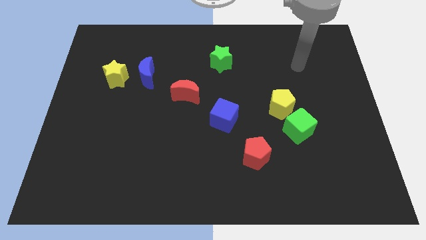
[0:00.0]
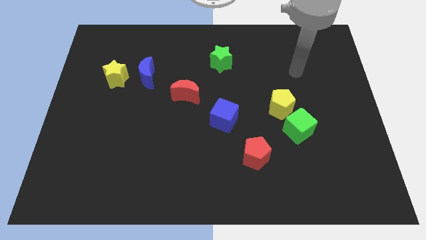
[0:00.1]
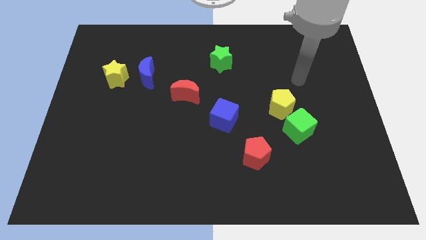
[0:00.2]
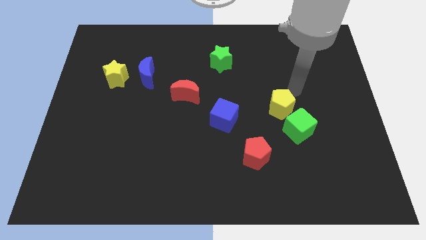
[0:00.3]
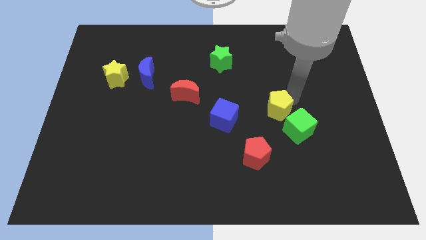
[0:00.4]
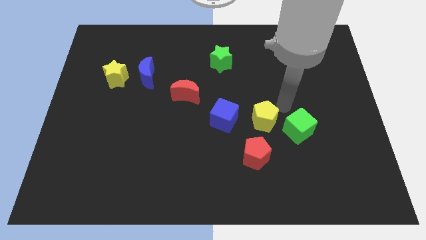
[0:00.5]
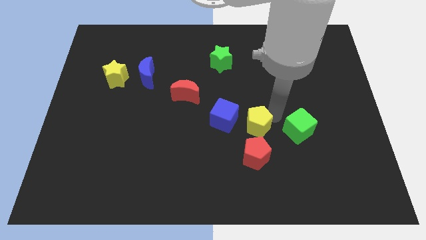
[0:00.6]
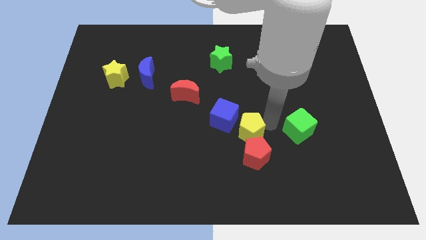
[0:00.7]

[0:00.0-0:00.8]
pull the green cube apart from the yellow pentagon

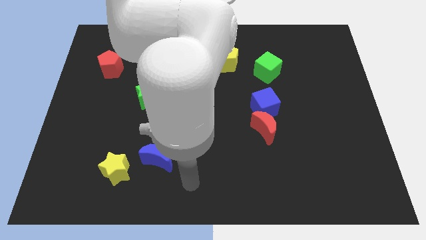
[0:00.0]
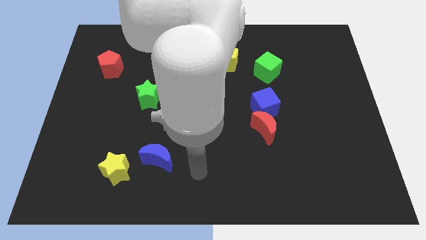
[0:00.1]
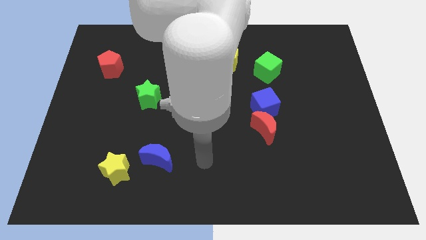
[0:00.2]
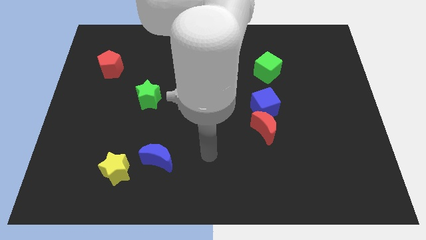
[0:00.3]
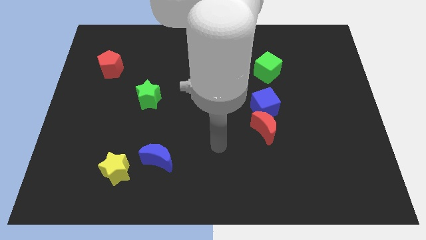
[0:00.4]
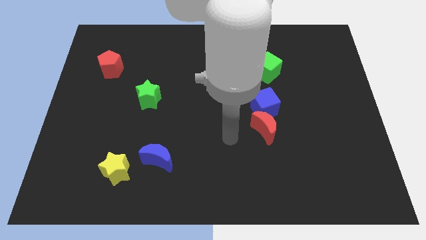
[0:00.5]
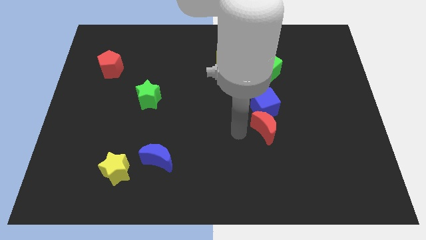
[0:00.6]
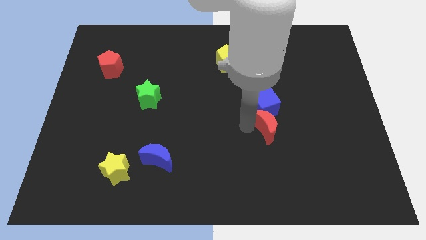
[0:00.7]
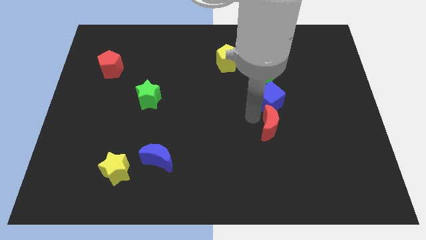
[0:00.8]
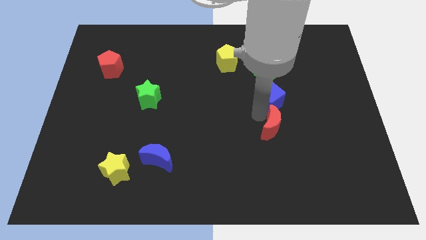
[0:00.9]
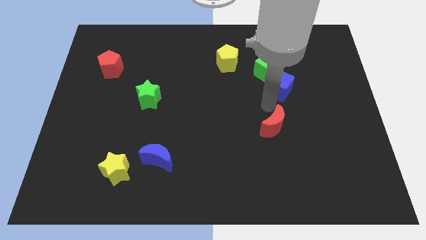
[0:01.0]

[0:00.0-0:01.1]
separate the red moon from the blue cube

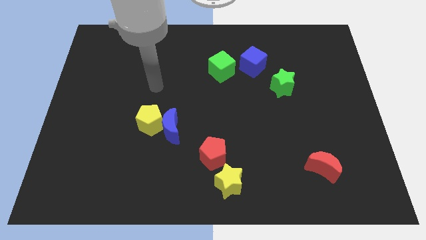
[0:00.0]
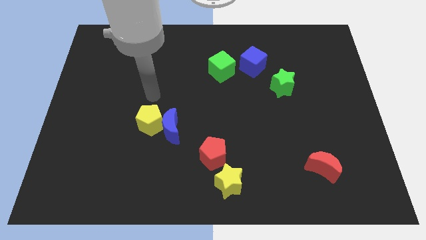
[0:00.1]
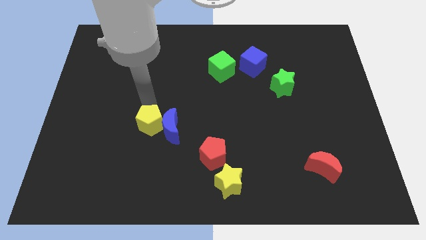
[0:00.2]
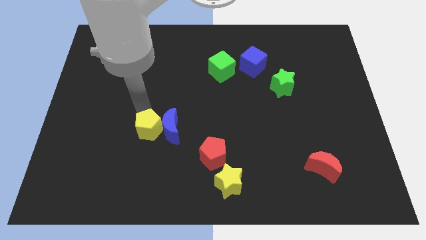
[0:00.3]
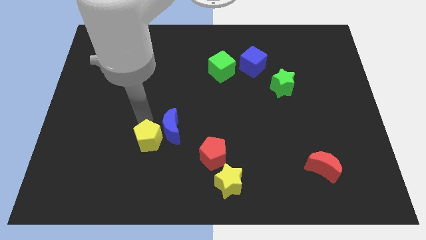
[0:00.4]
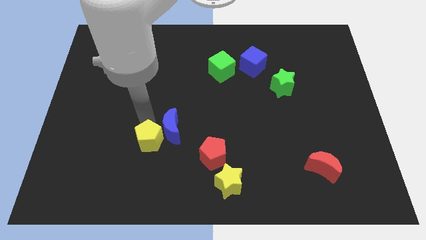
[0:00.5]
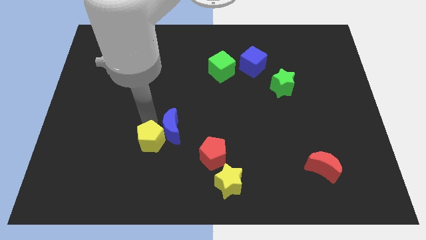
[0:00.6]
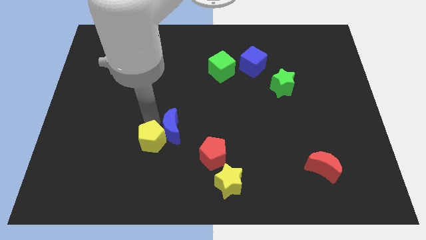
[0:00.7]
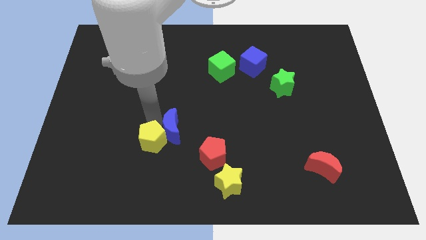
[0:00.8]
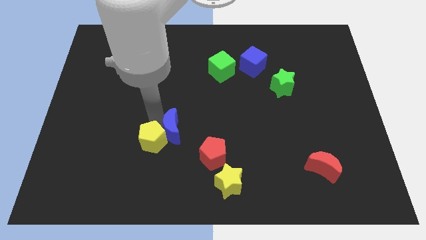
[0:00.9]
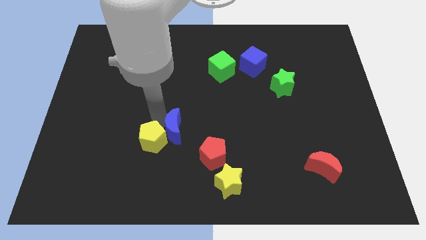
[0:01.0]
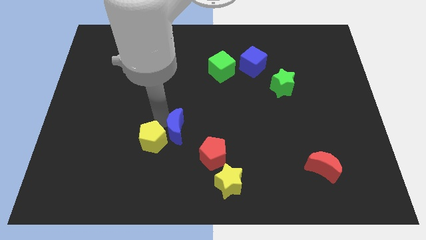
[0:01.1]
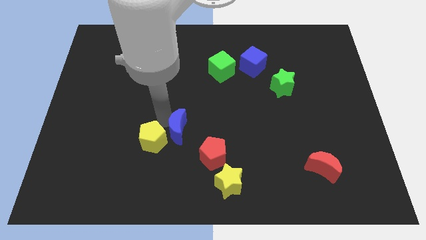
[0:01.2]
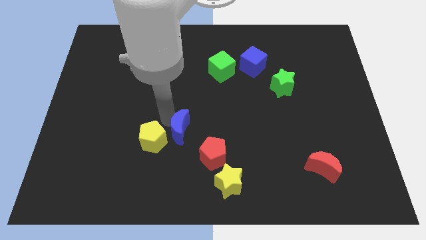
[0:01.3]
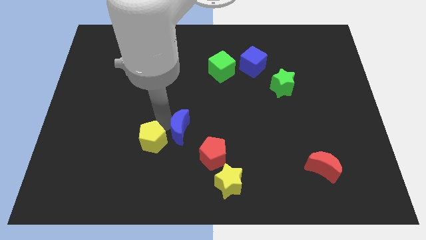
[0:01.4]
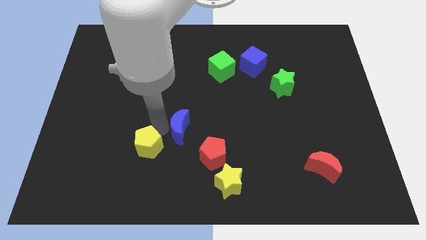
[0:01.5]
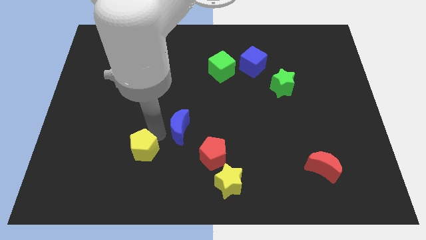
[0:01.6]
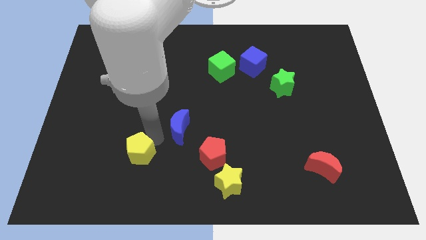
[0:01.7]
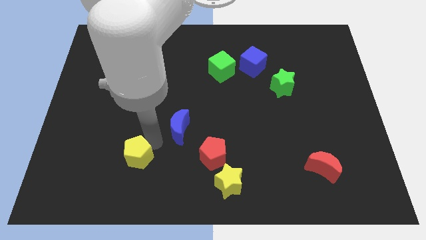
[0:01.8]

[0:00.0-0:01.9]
separate the blue moon from the yellow pentagon

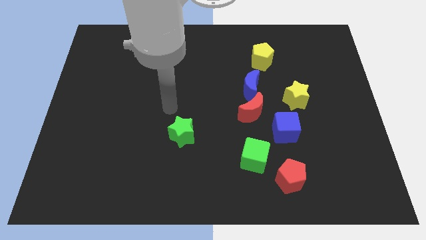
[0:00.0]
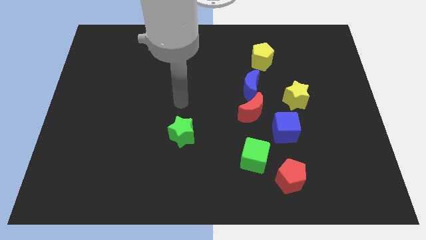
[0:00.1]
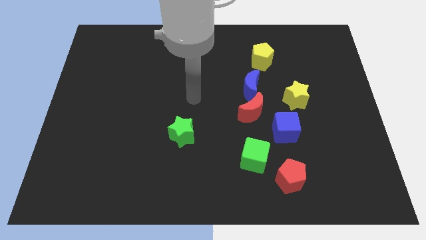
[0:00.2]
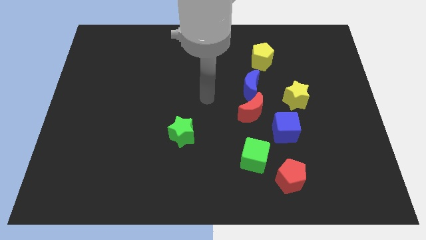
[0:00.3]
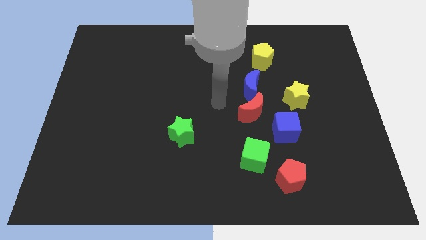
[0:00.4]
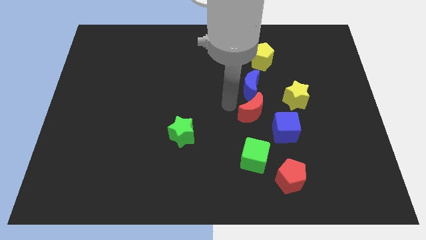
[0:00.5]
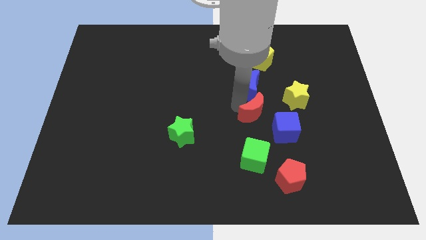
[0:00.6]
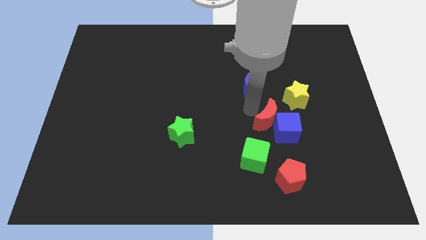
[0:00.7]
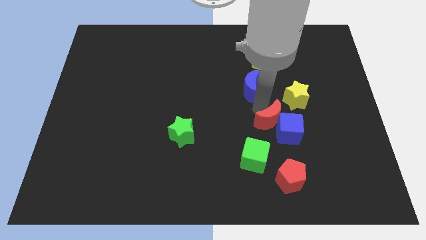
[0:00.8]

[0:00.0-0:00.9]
move the blue moon away from the red moon

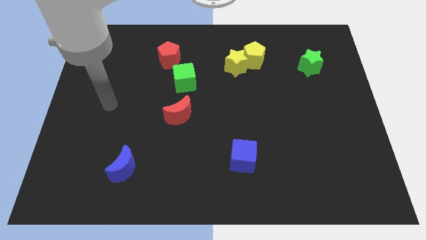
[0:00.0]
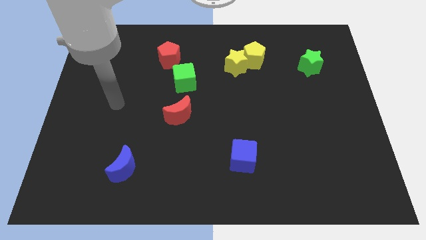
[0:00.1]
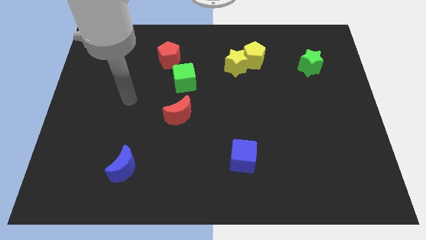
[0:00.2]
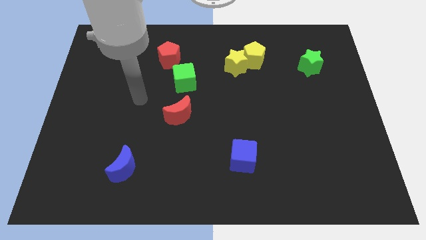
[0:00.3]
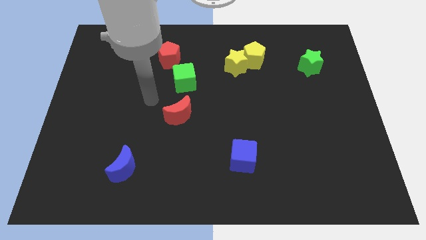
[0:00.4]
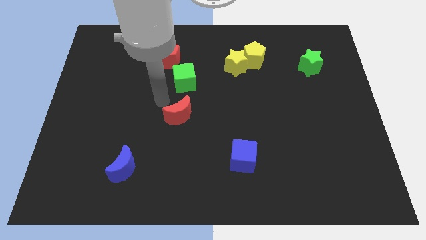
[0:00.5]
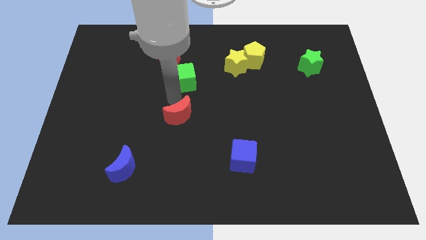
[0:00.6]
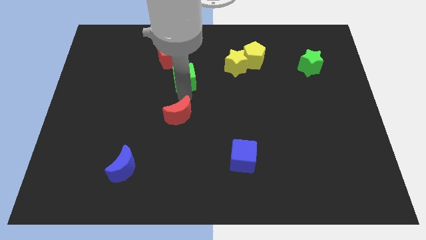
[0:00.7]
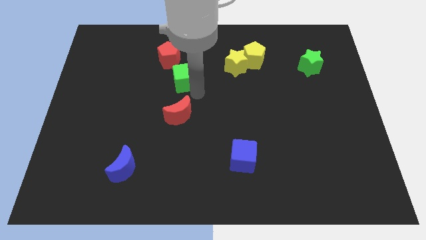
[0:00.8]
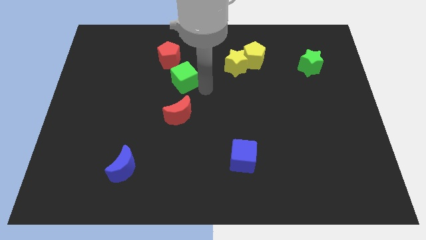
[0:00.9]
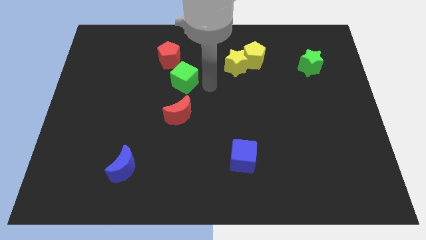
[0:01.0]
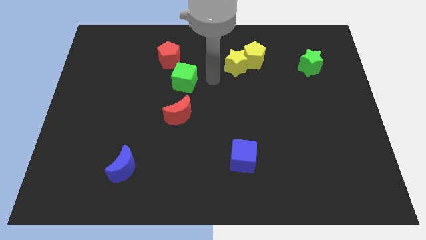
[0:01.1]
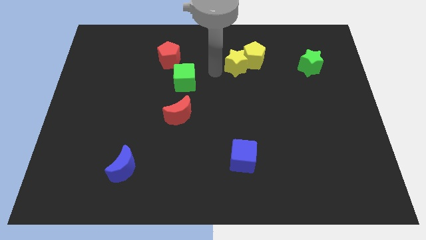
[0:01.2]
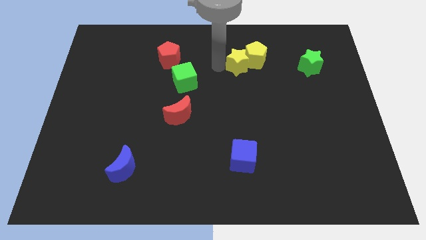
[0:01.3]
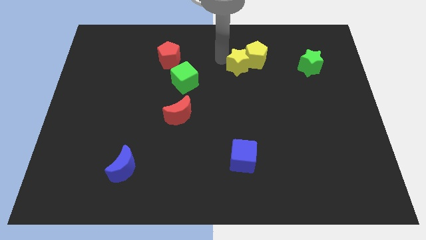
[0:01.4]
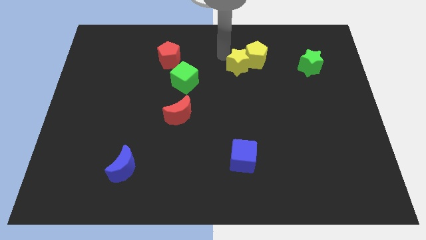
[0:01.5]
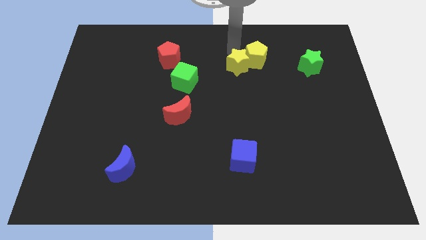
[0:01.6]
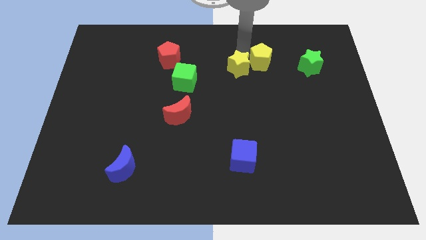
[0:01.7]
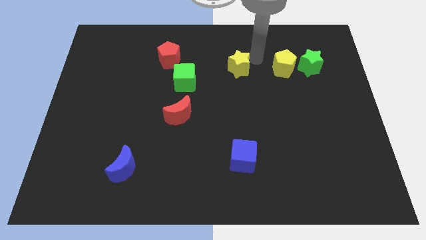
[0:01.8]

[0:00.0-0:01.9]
pull the yellow star apart from the yellow pentagon

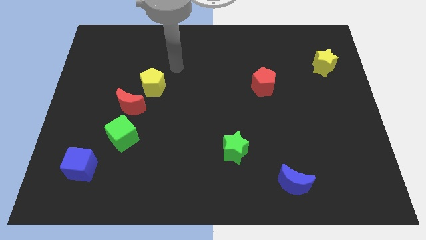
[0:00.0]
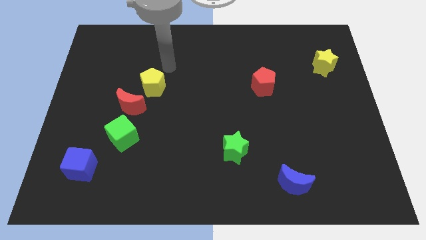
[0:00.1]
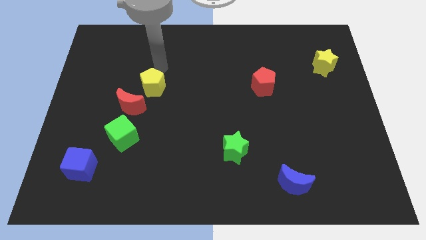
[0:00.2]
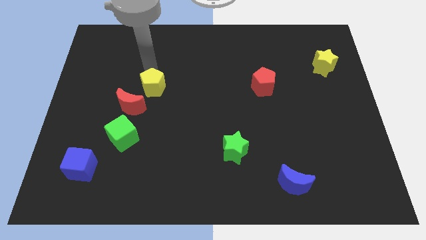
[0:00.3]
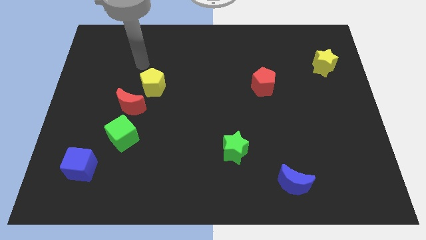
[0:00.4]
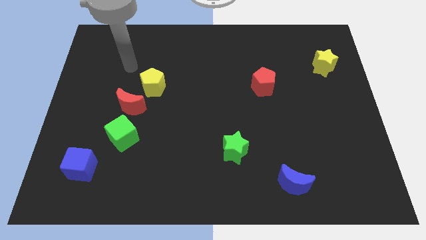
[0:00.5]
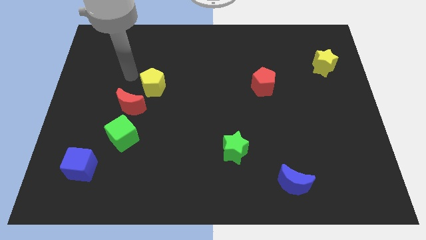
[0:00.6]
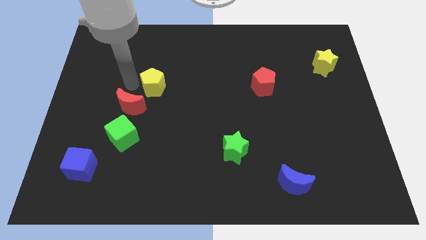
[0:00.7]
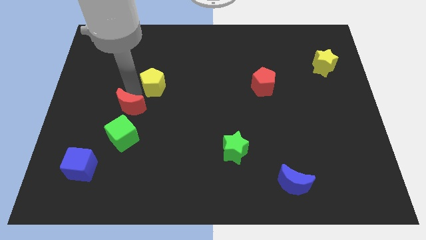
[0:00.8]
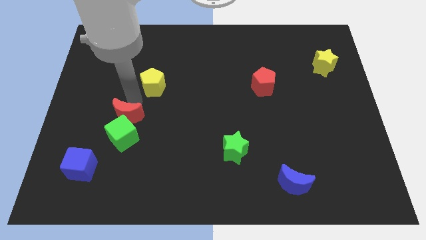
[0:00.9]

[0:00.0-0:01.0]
move the yellow pentagon away from the red moon

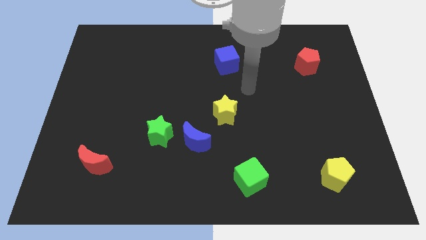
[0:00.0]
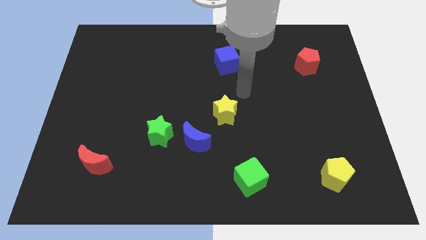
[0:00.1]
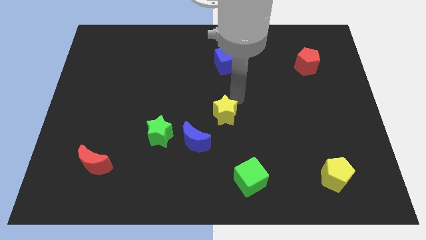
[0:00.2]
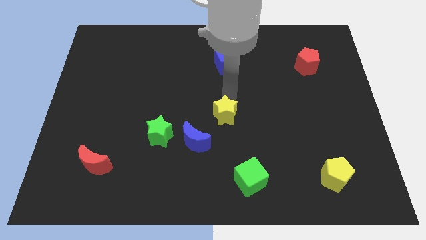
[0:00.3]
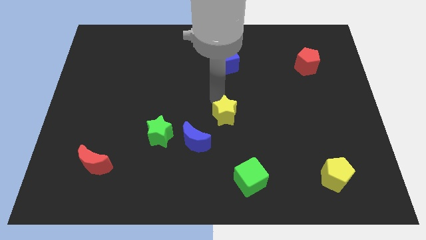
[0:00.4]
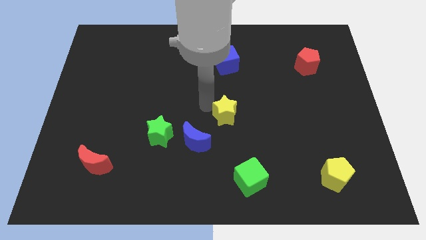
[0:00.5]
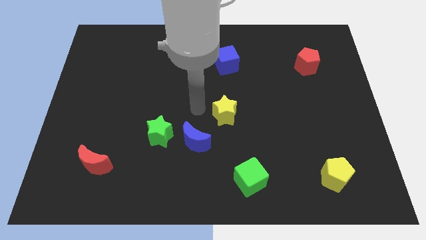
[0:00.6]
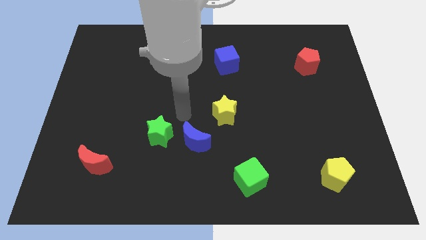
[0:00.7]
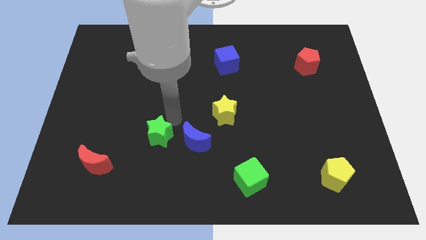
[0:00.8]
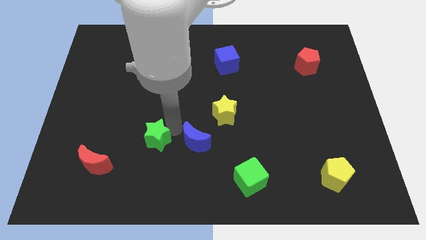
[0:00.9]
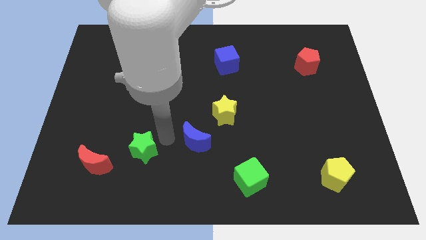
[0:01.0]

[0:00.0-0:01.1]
pull the blue moon apart from the green star

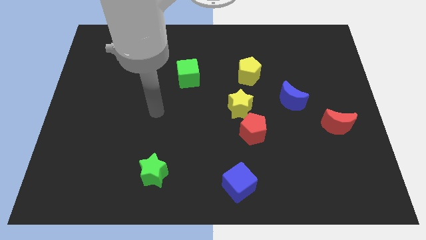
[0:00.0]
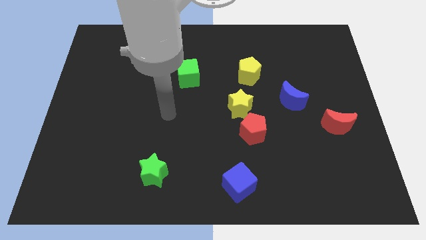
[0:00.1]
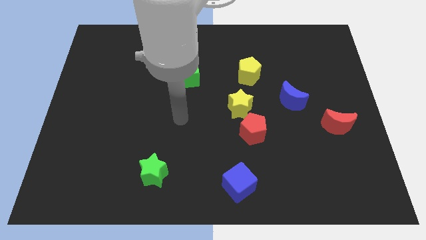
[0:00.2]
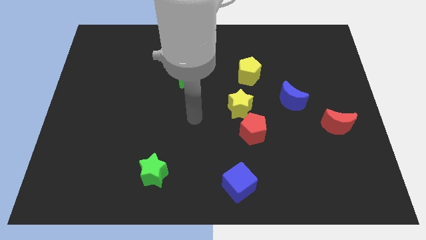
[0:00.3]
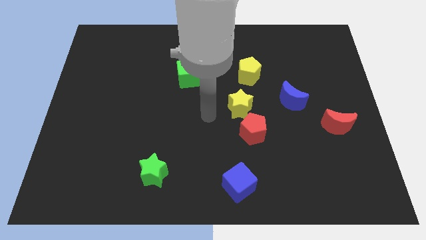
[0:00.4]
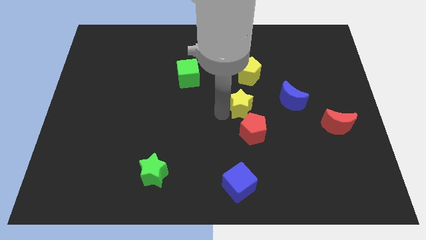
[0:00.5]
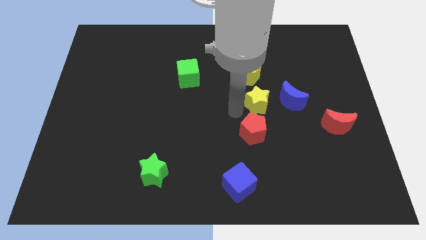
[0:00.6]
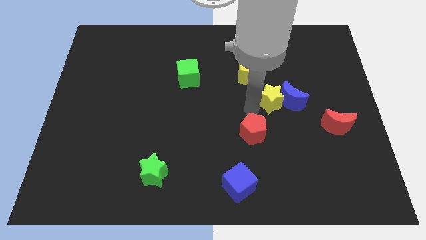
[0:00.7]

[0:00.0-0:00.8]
pull the red pentagon apart from the yellow star
